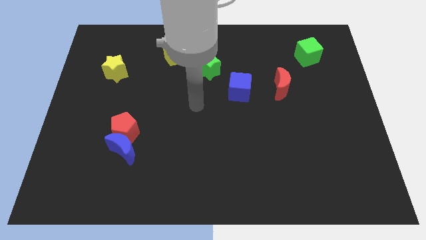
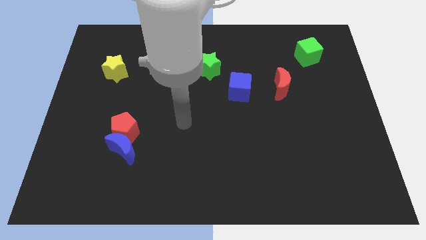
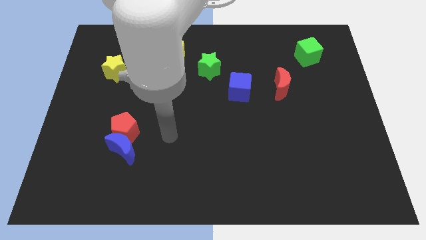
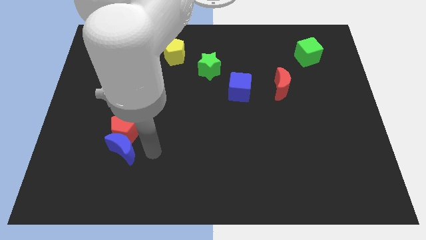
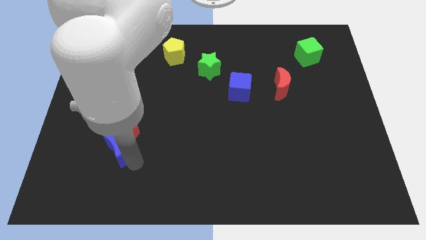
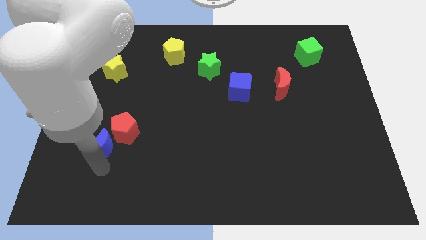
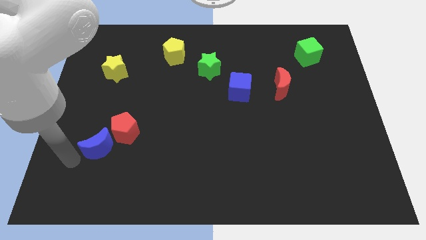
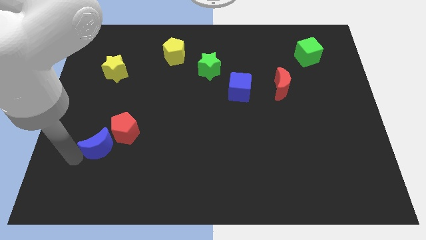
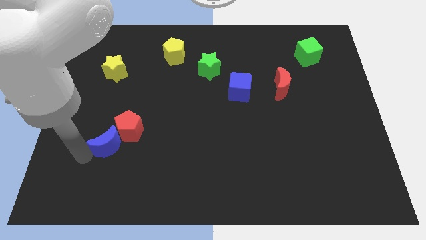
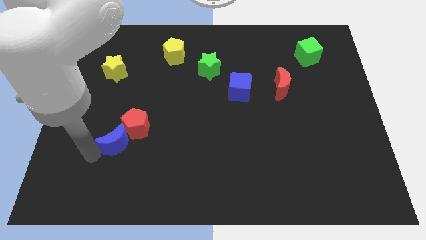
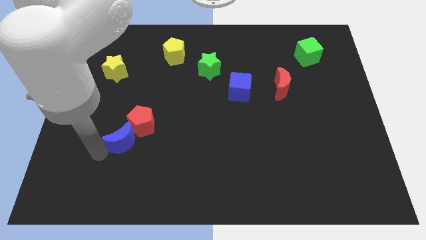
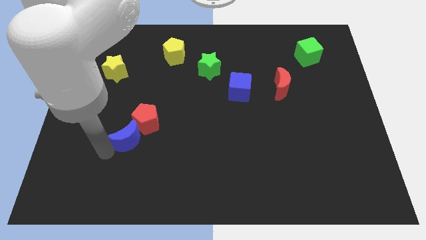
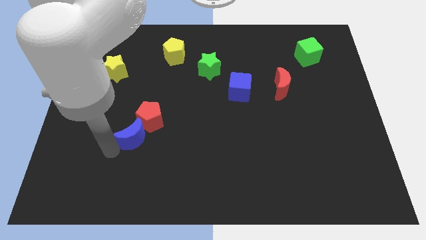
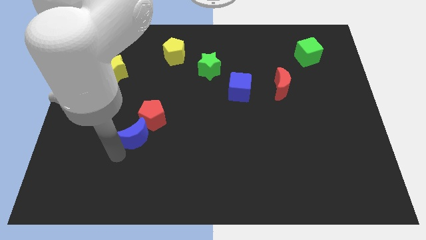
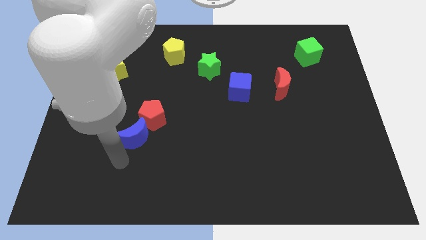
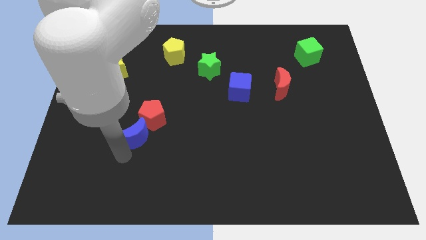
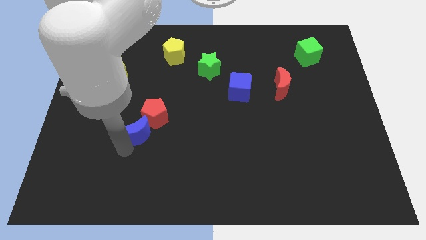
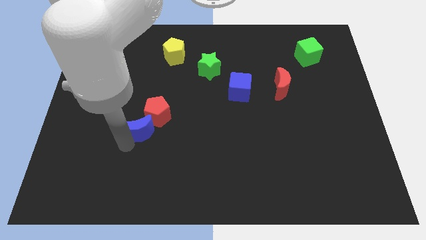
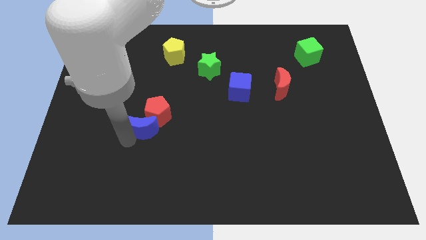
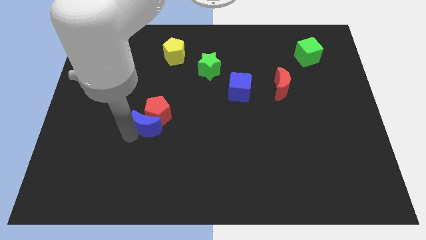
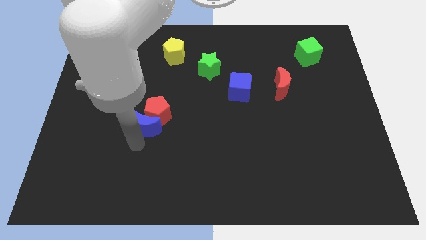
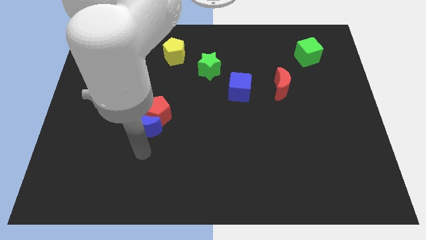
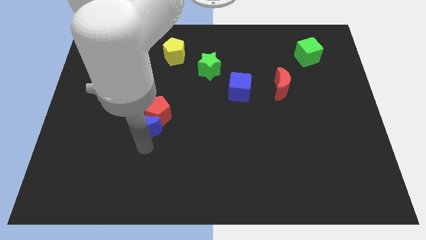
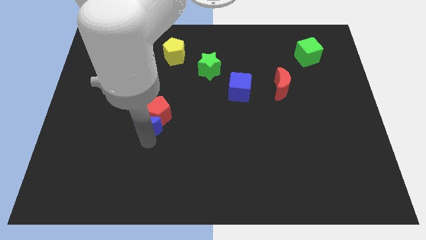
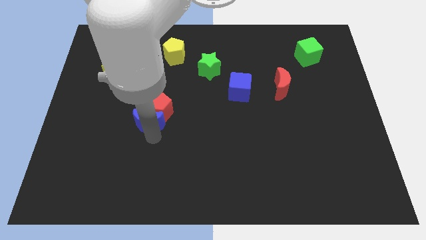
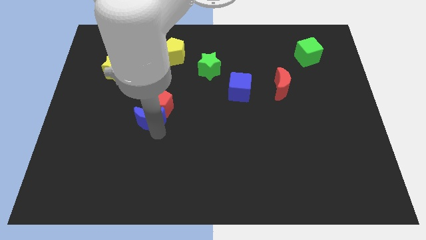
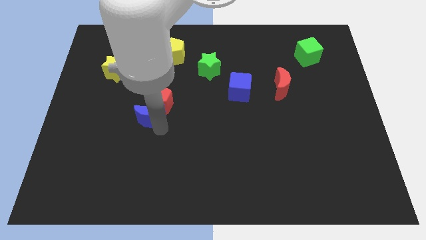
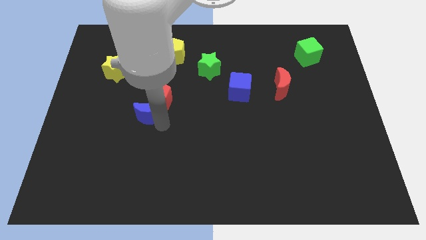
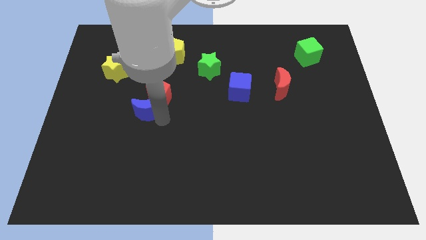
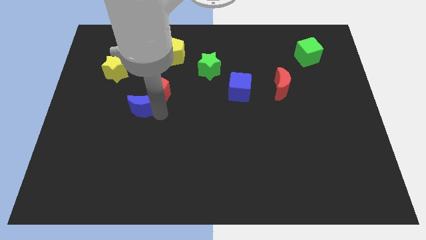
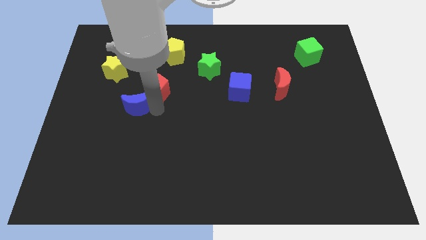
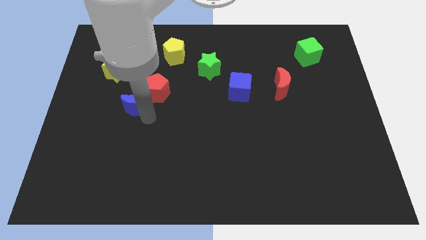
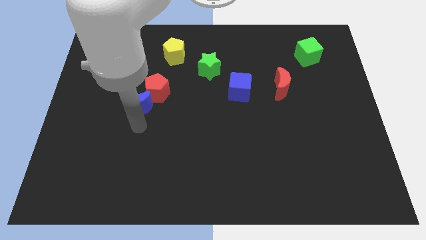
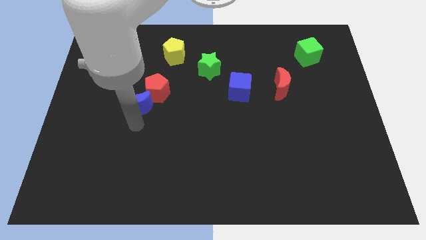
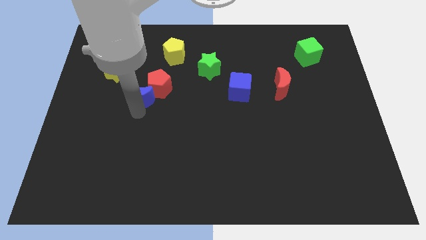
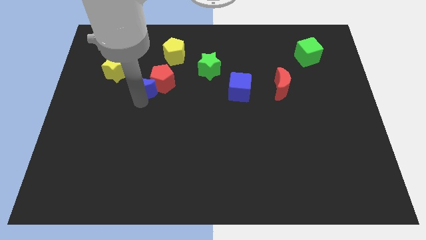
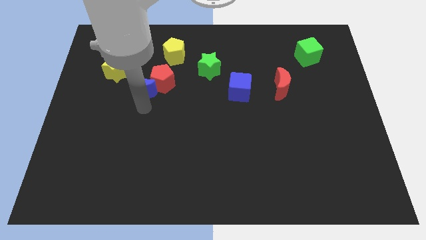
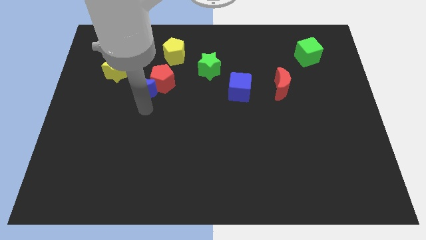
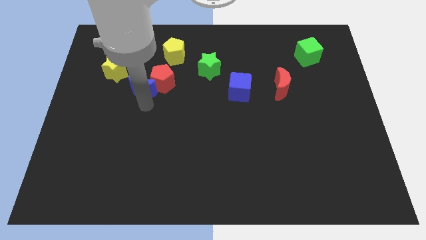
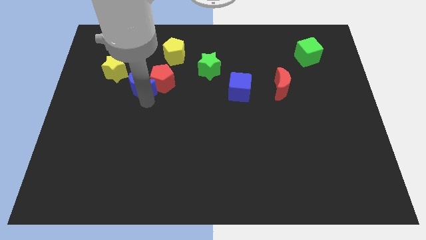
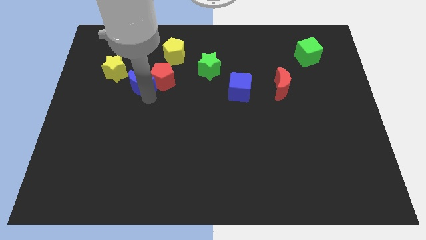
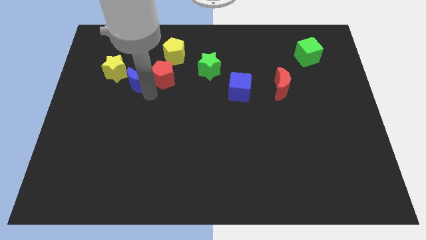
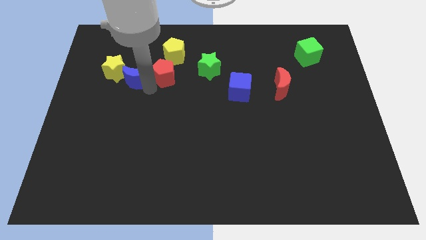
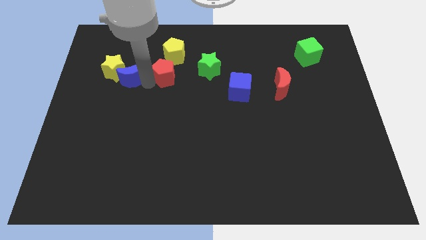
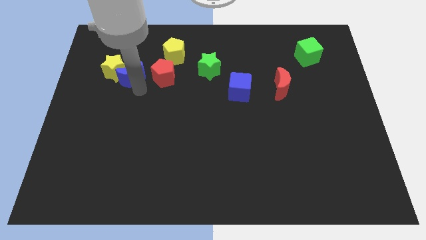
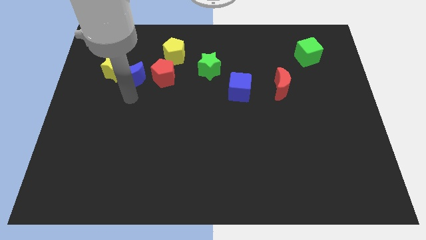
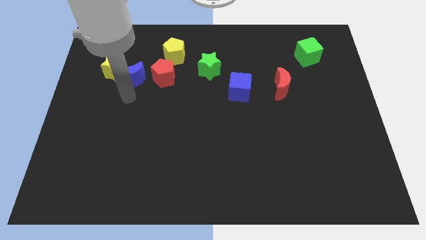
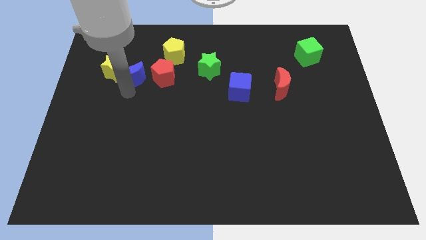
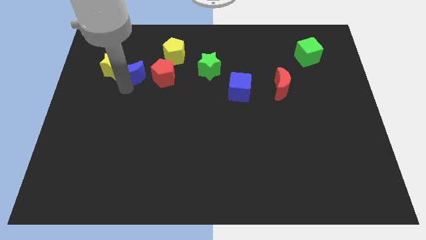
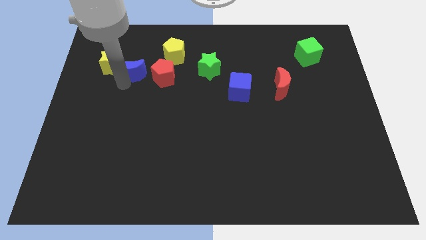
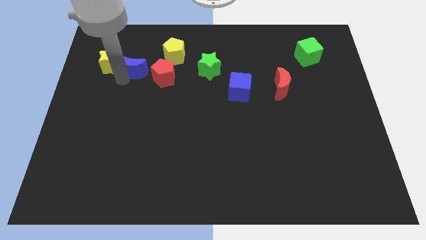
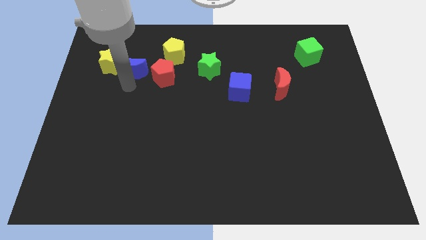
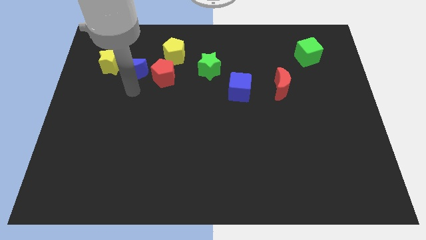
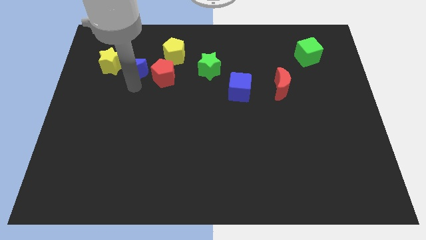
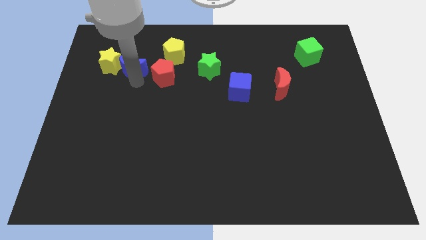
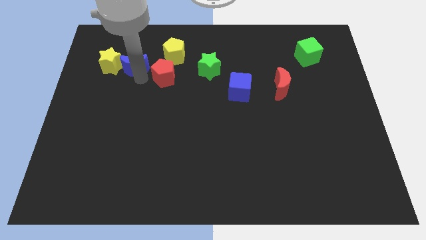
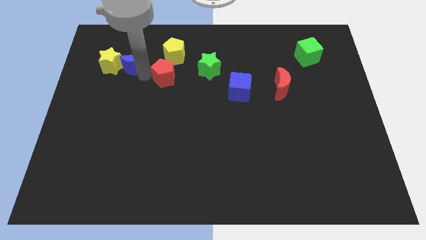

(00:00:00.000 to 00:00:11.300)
push the blue moon to the top right side of the yellow star

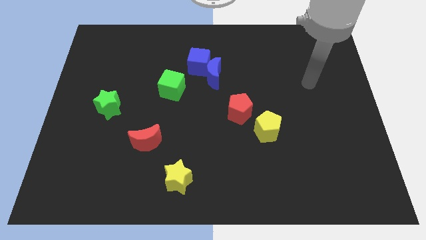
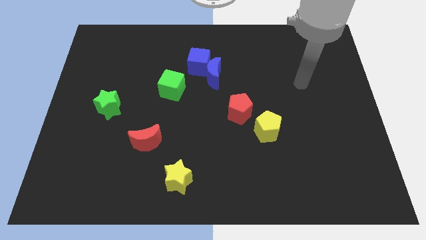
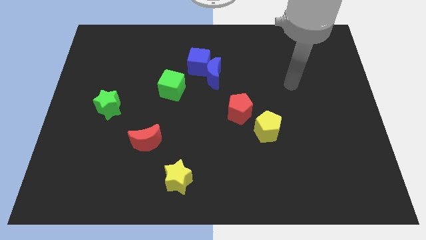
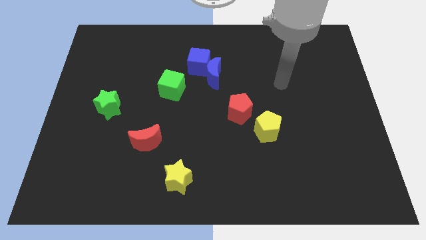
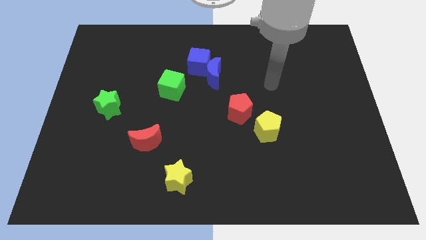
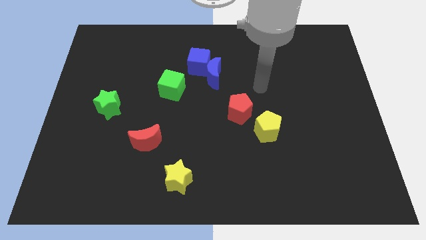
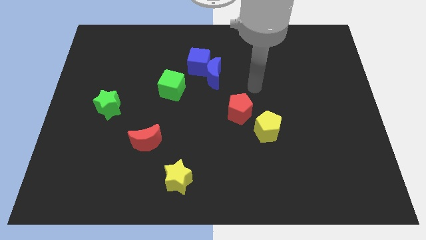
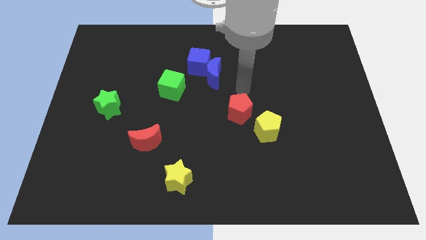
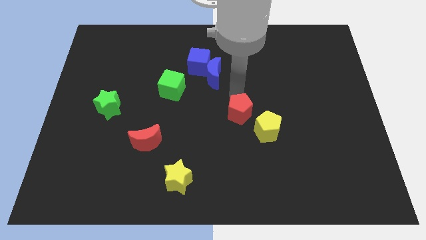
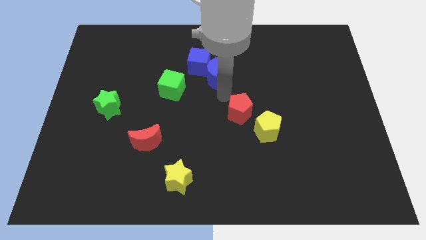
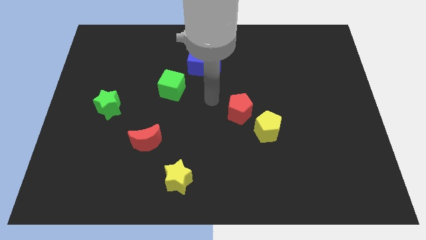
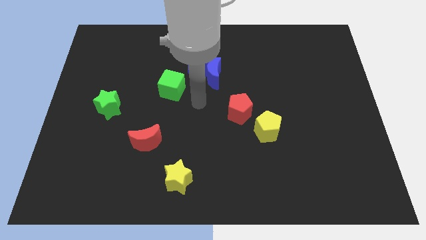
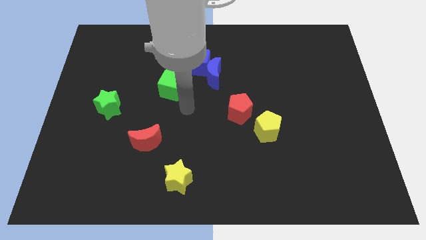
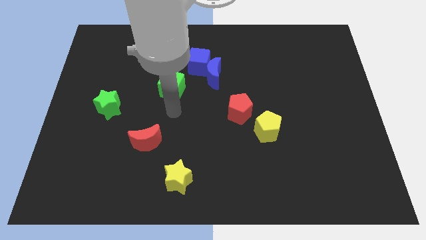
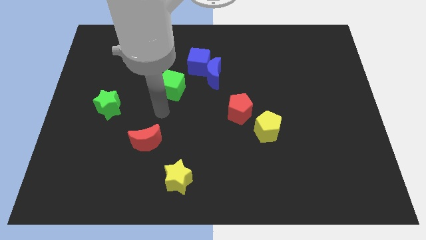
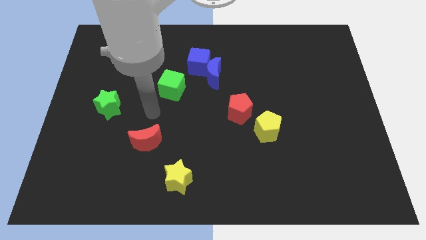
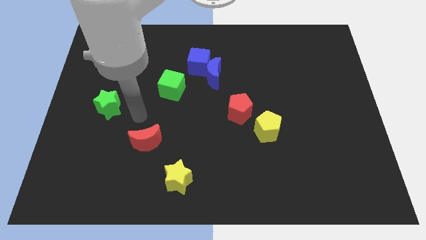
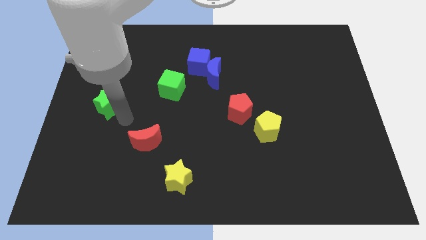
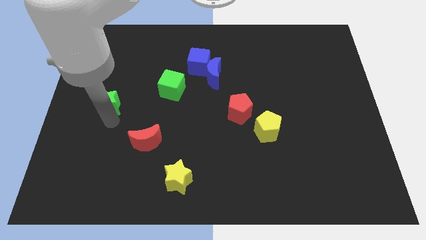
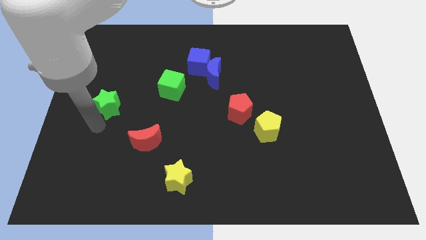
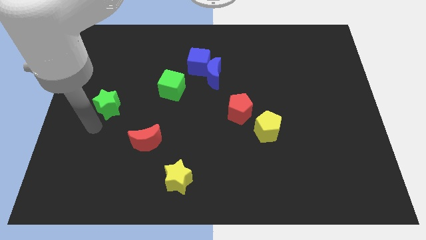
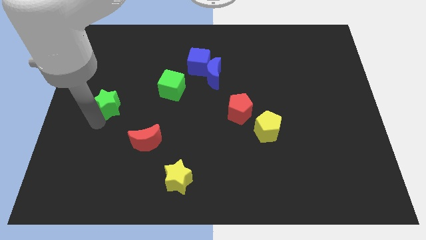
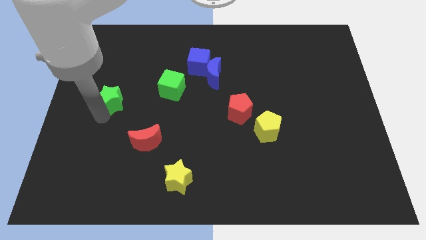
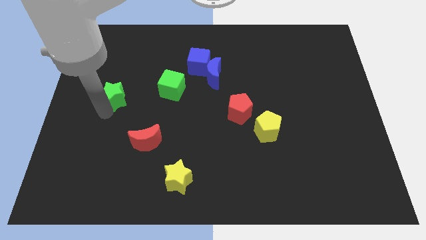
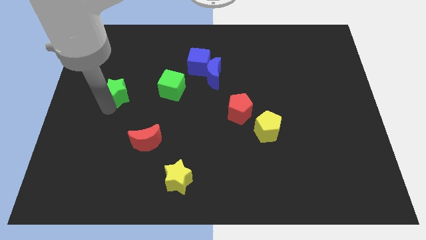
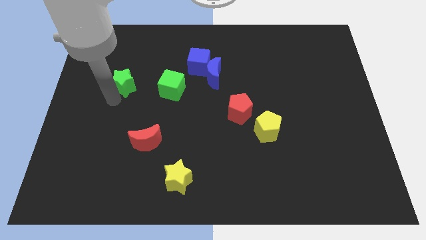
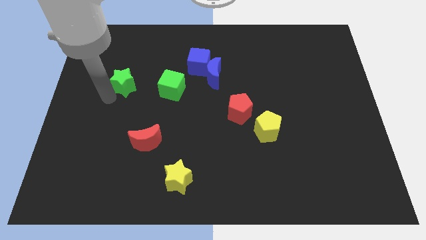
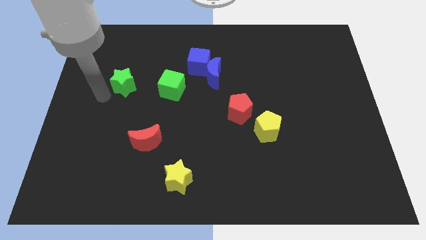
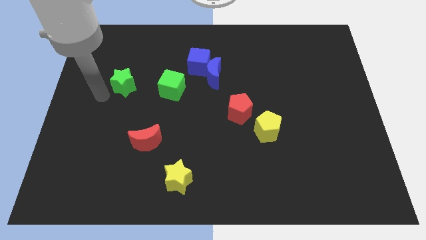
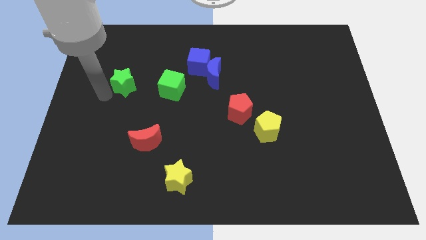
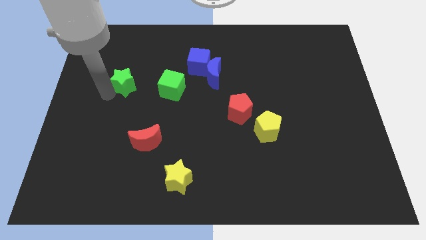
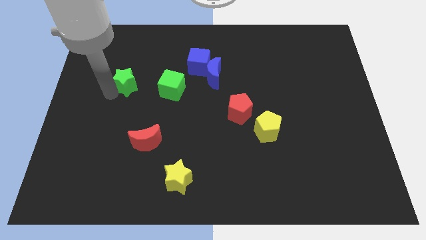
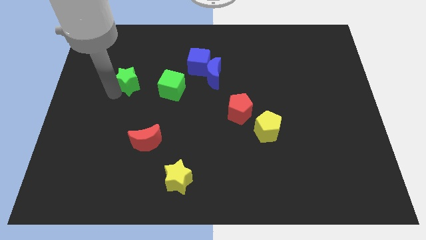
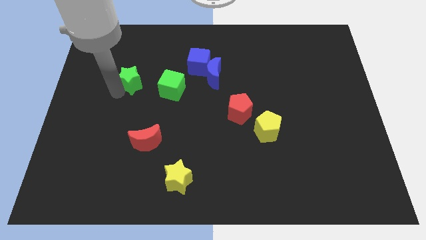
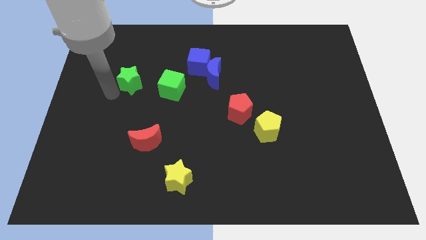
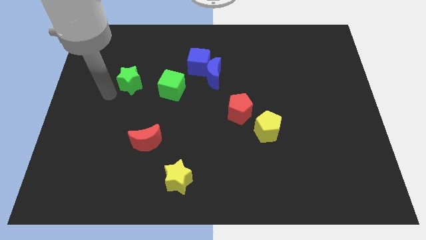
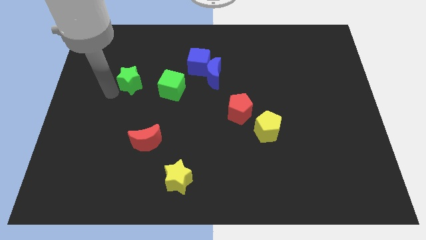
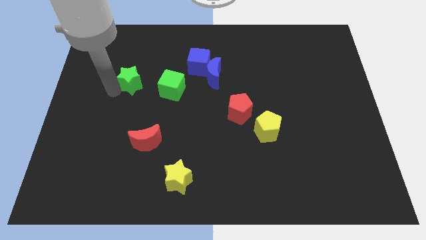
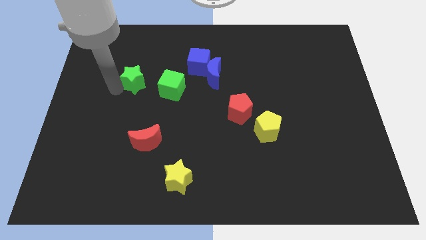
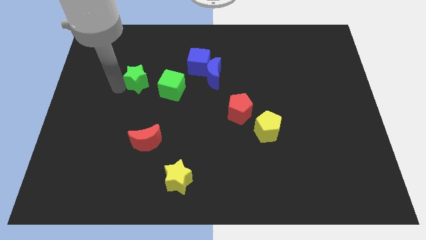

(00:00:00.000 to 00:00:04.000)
put the green star diagonally up and to the left of the green cube
